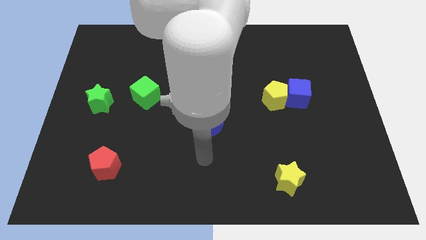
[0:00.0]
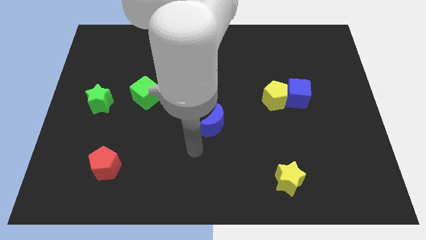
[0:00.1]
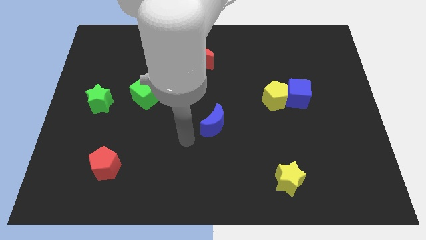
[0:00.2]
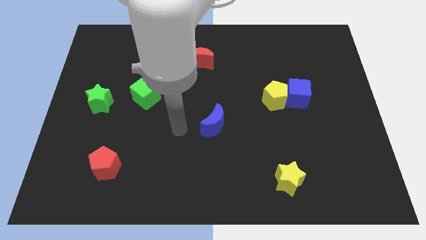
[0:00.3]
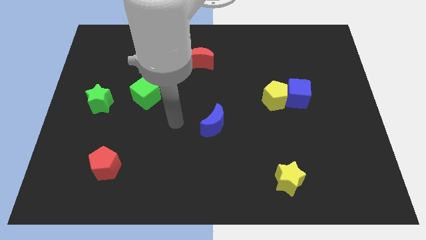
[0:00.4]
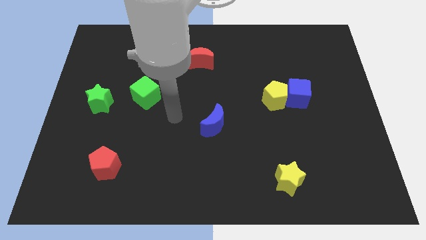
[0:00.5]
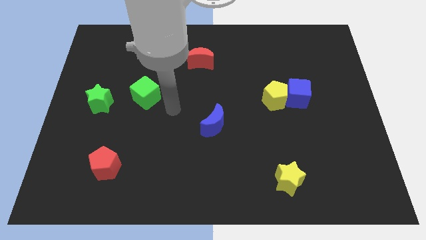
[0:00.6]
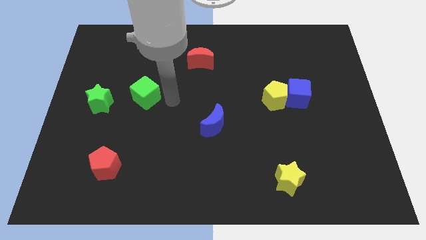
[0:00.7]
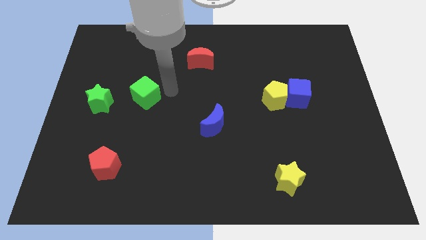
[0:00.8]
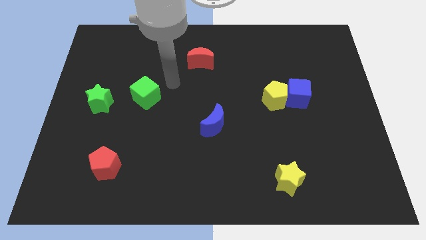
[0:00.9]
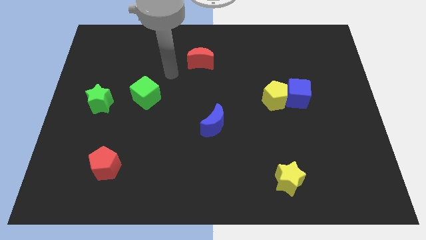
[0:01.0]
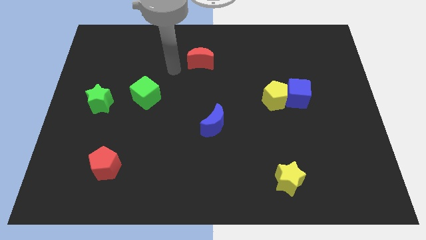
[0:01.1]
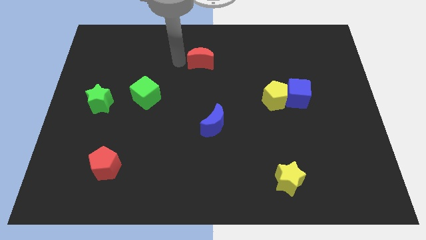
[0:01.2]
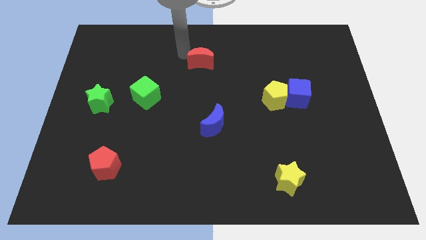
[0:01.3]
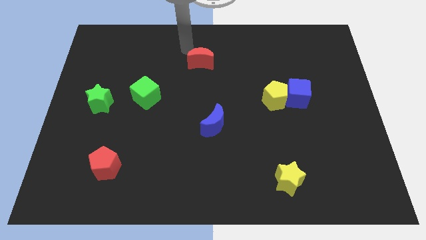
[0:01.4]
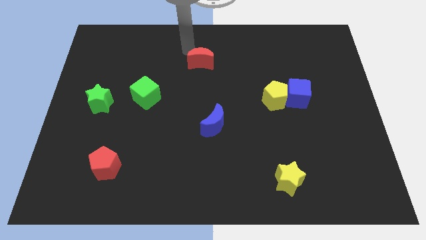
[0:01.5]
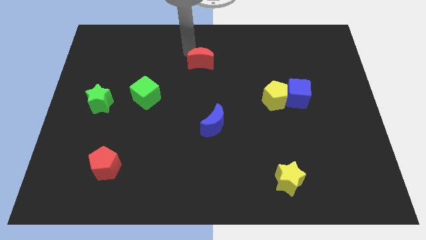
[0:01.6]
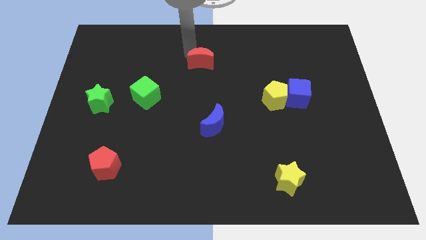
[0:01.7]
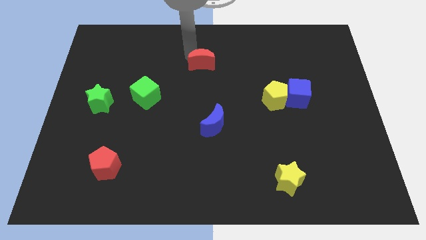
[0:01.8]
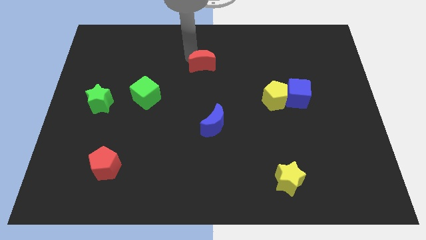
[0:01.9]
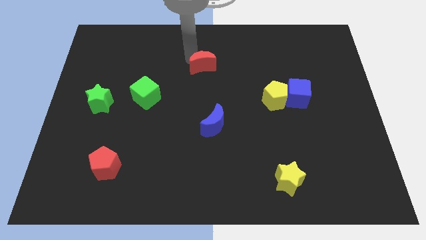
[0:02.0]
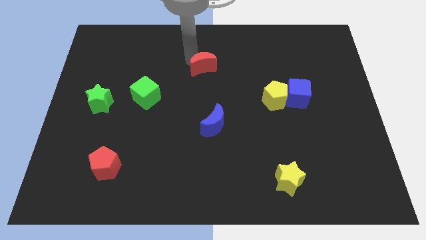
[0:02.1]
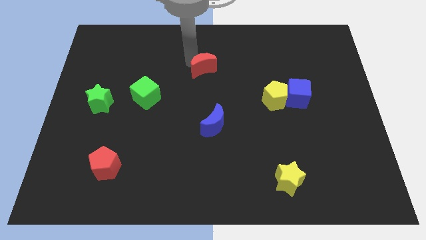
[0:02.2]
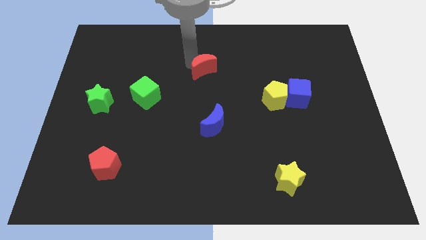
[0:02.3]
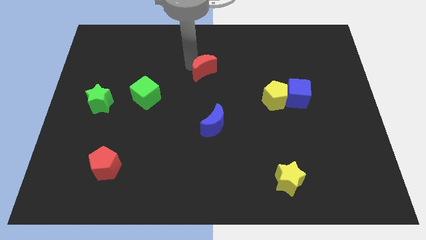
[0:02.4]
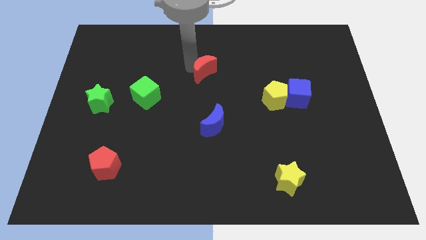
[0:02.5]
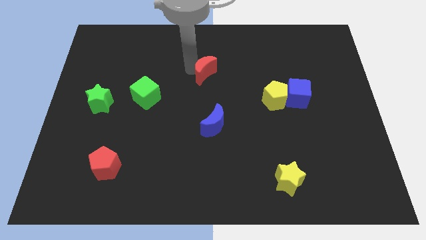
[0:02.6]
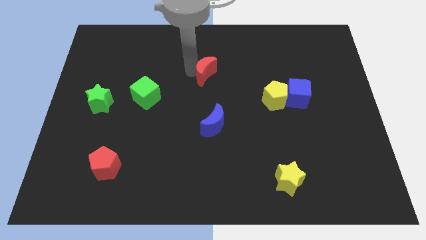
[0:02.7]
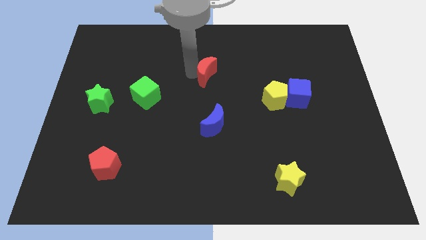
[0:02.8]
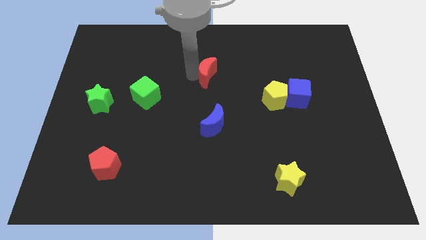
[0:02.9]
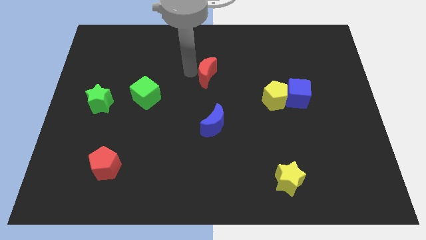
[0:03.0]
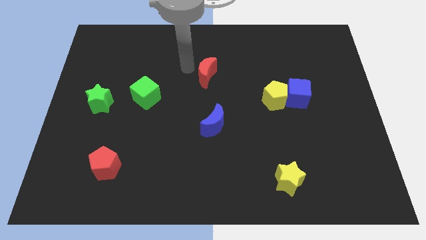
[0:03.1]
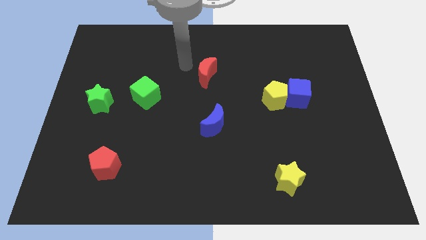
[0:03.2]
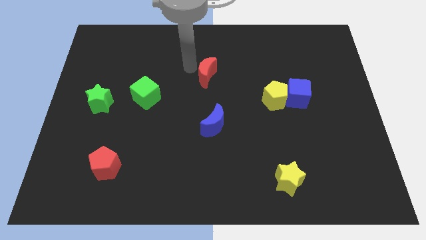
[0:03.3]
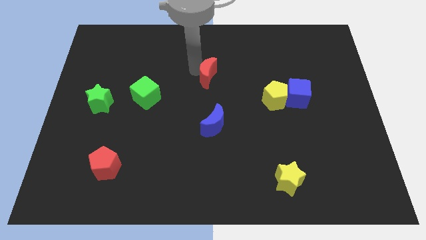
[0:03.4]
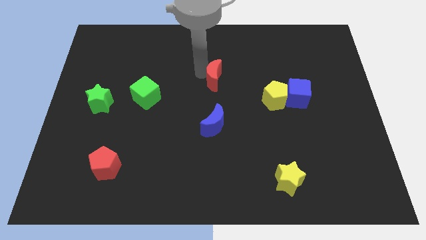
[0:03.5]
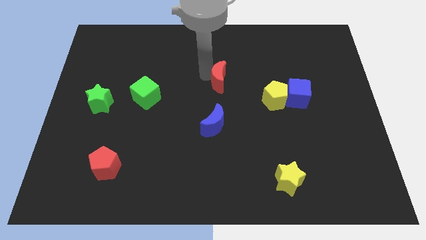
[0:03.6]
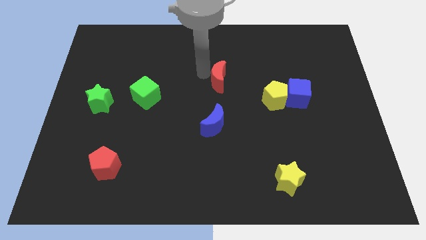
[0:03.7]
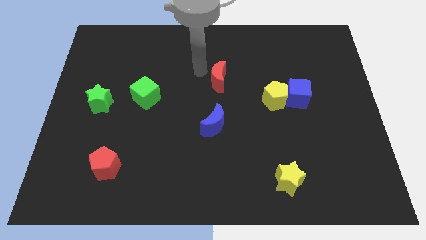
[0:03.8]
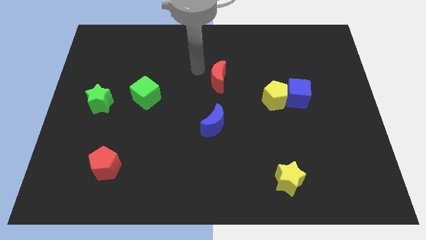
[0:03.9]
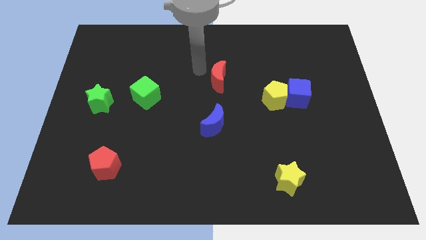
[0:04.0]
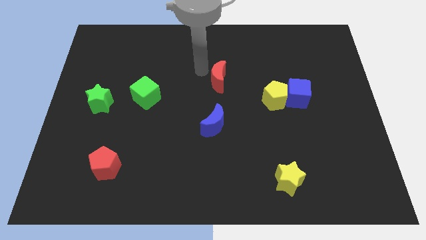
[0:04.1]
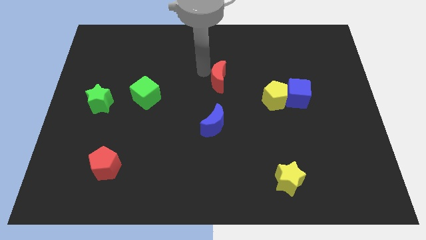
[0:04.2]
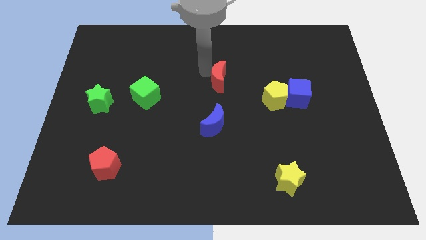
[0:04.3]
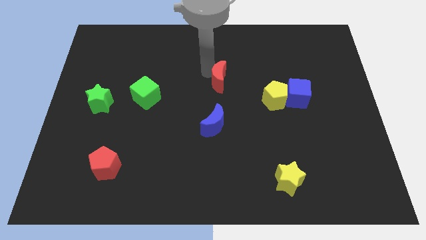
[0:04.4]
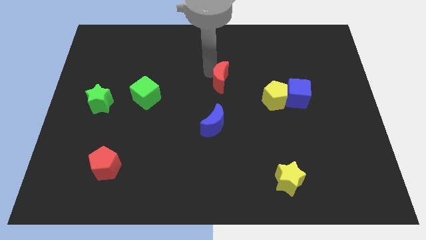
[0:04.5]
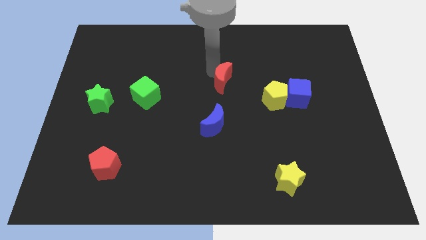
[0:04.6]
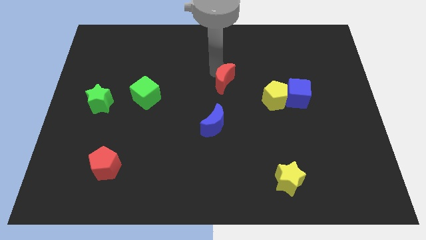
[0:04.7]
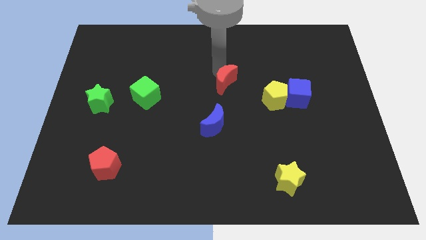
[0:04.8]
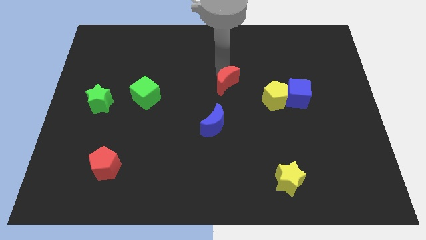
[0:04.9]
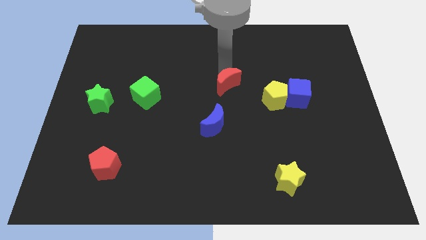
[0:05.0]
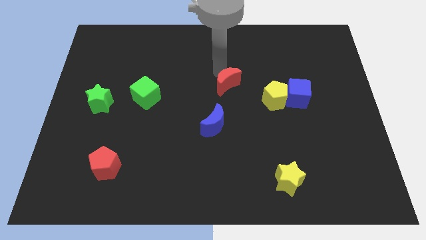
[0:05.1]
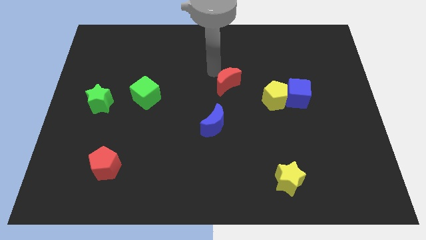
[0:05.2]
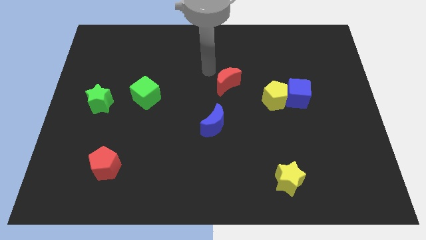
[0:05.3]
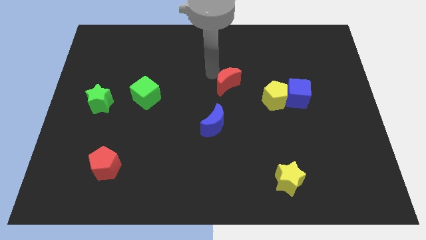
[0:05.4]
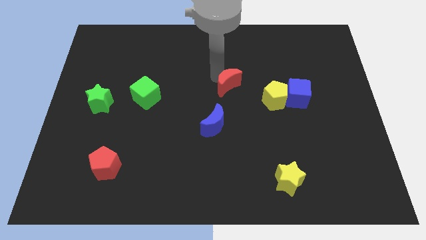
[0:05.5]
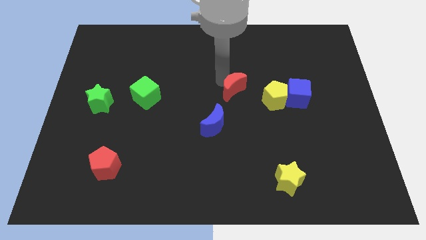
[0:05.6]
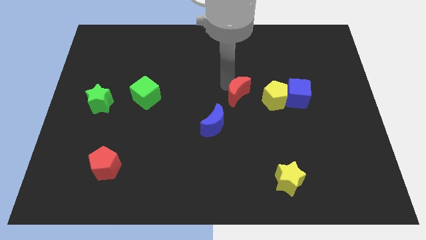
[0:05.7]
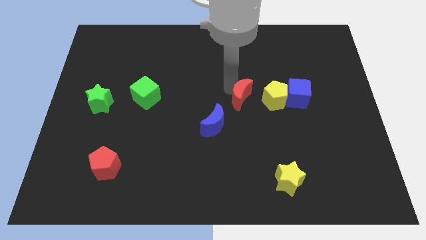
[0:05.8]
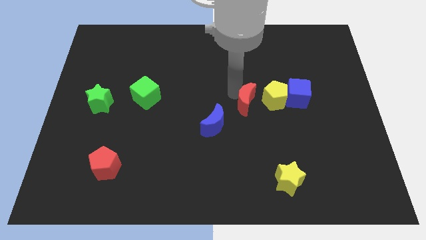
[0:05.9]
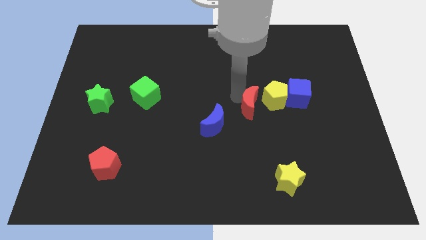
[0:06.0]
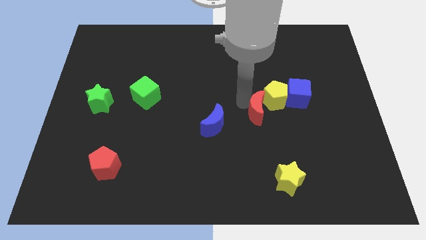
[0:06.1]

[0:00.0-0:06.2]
move the red moon downwards and to the right diagonally

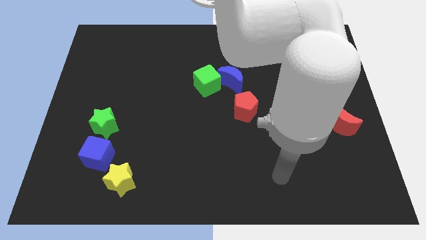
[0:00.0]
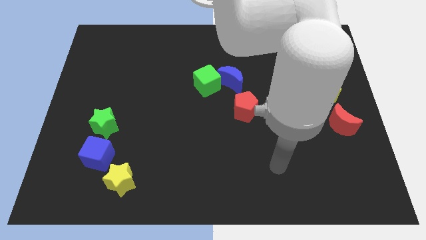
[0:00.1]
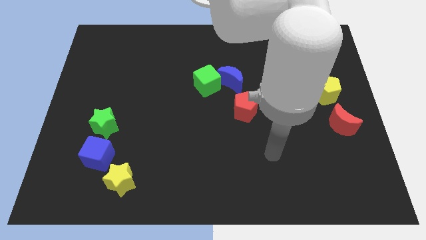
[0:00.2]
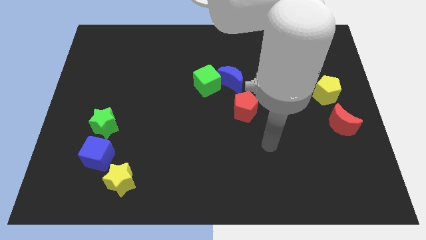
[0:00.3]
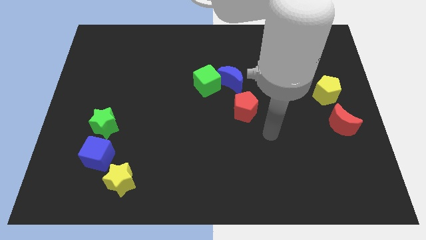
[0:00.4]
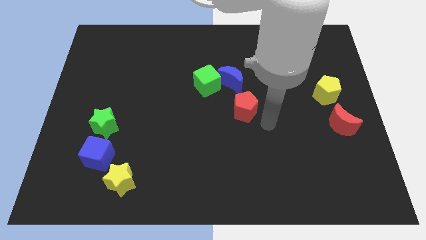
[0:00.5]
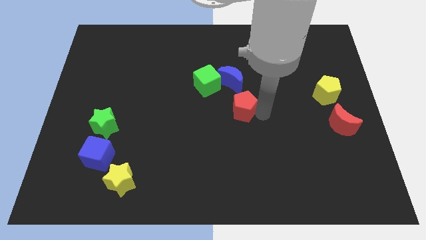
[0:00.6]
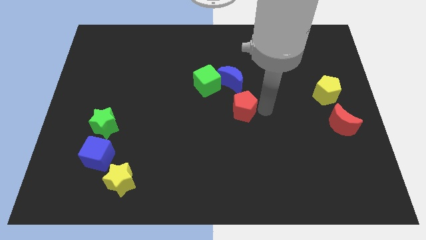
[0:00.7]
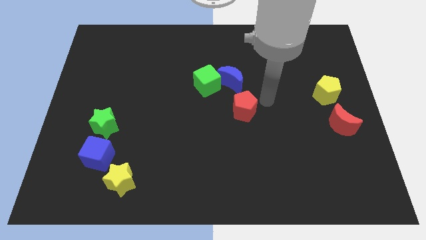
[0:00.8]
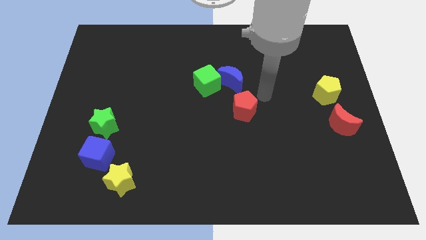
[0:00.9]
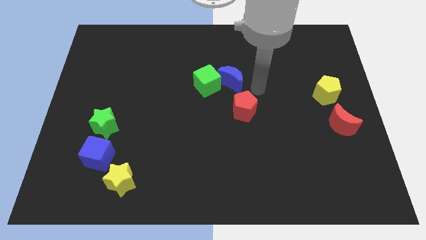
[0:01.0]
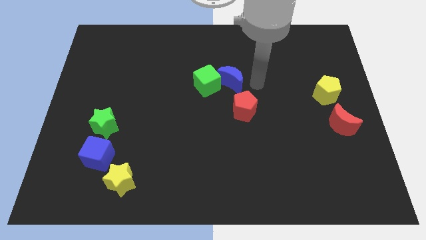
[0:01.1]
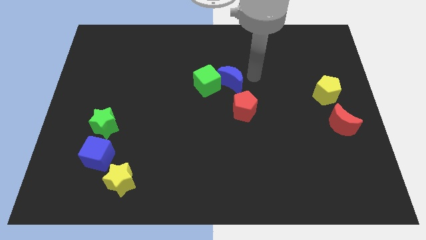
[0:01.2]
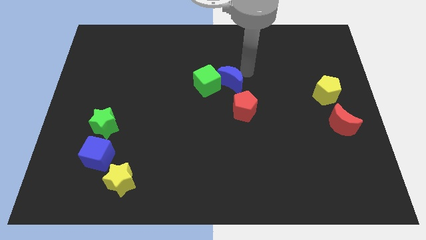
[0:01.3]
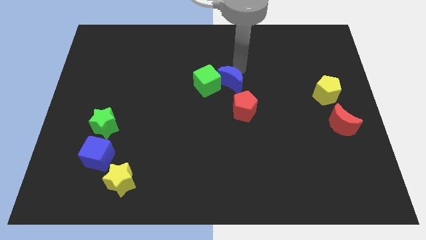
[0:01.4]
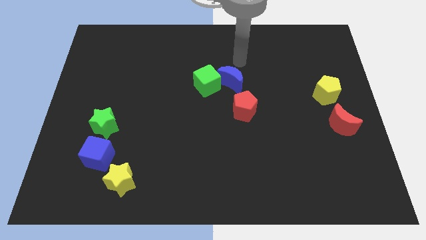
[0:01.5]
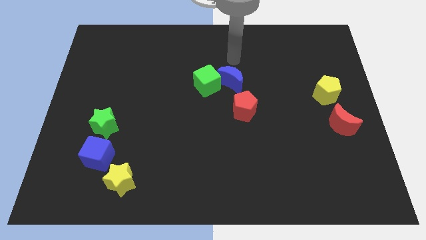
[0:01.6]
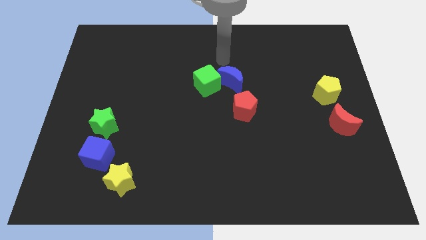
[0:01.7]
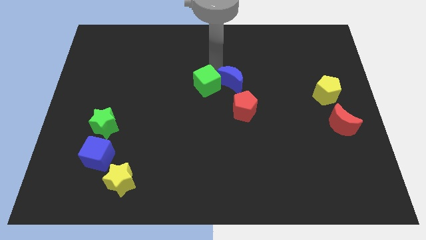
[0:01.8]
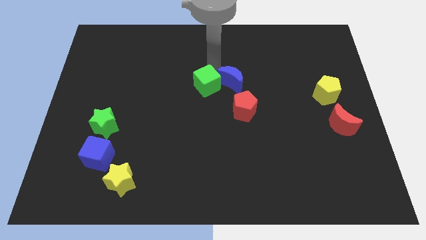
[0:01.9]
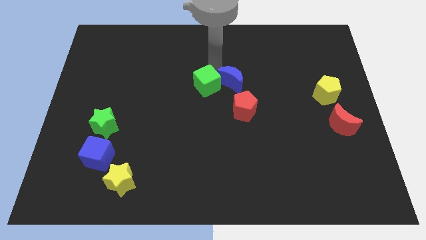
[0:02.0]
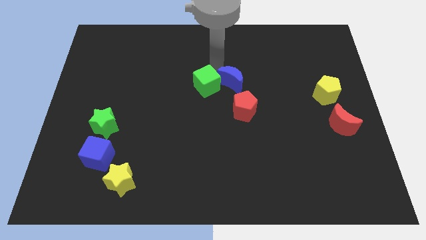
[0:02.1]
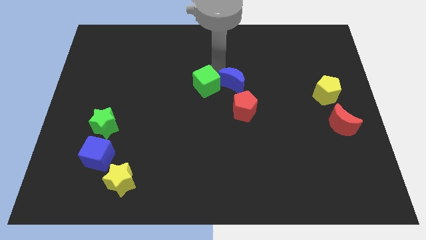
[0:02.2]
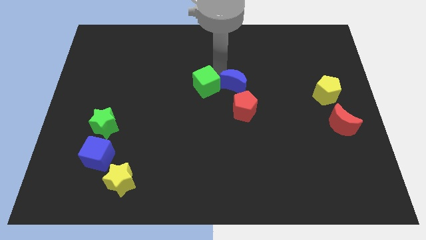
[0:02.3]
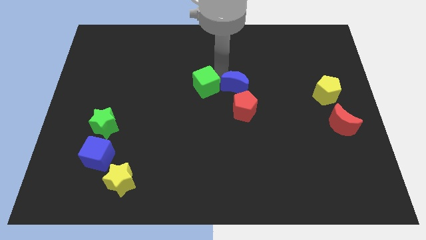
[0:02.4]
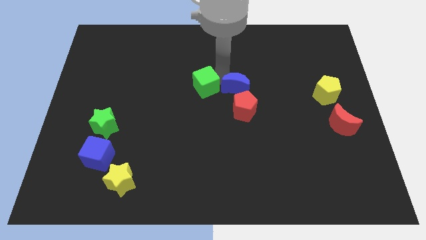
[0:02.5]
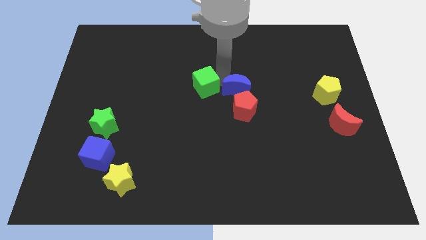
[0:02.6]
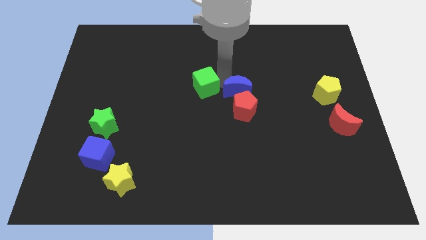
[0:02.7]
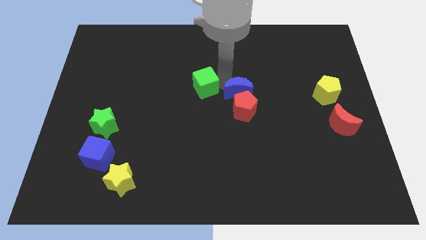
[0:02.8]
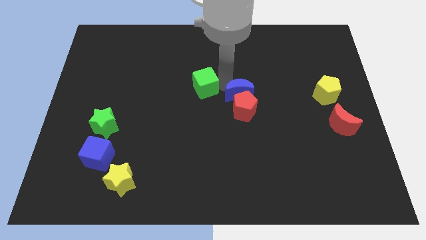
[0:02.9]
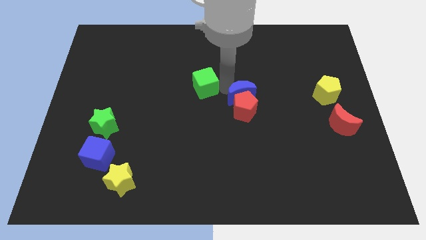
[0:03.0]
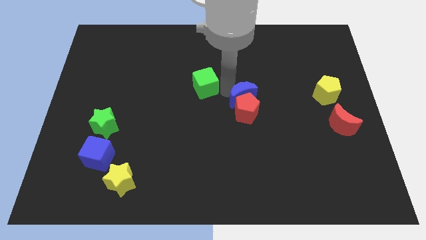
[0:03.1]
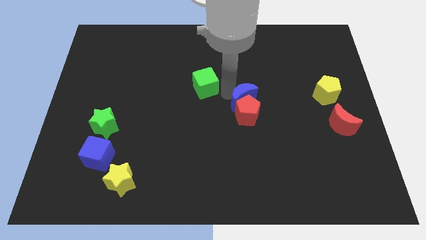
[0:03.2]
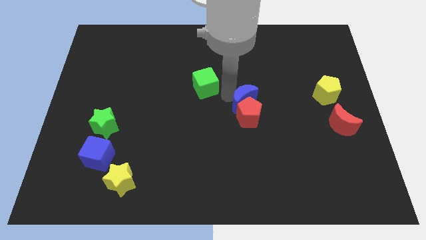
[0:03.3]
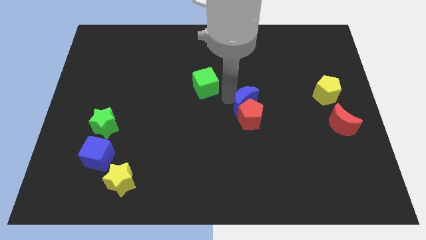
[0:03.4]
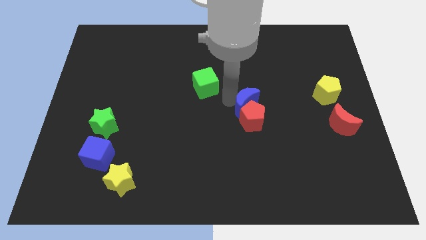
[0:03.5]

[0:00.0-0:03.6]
push the blue moon a bit downwards and right
